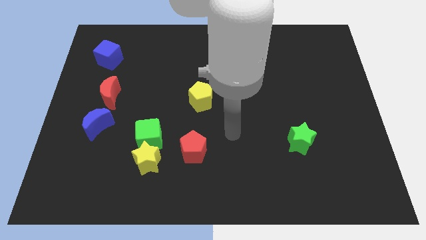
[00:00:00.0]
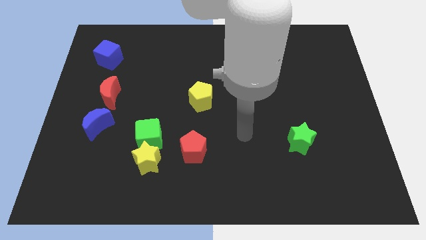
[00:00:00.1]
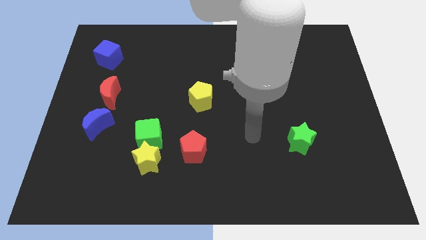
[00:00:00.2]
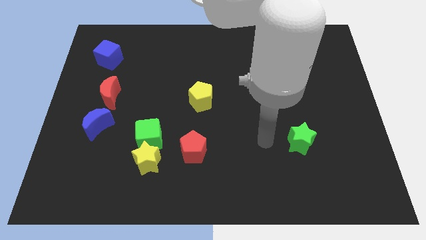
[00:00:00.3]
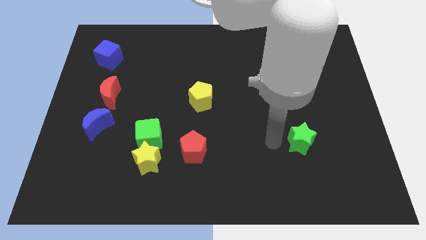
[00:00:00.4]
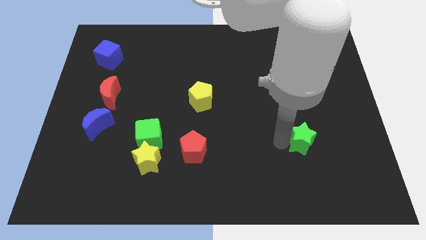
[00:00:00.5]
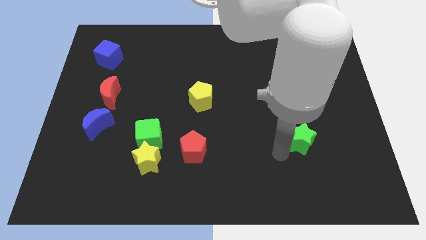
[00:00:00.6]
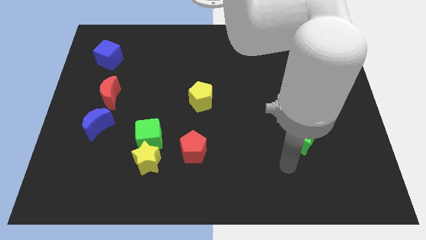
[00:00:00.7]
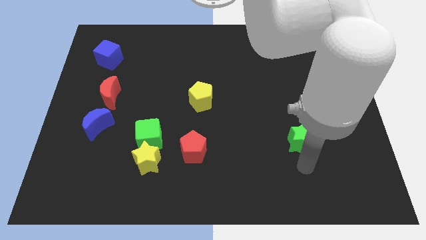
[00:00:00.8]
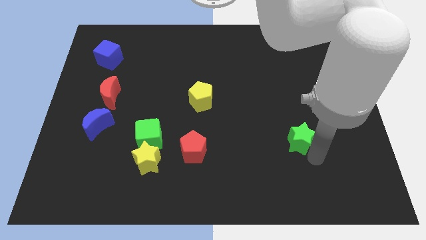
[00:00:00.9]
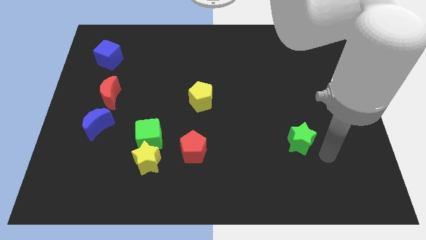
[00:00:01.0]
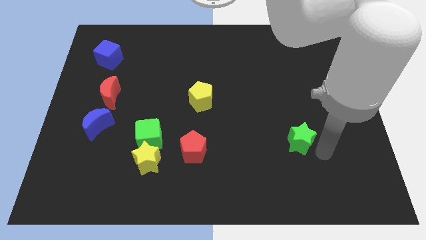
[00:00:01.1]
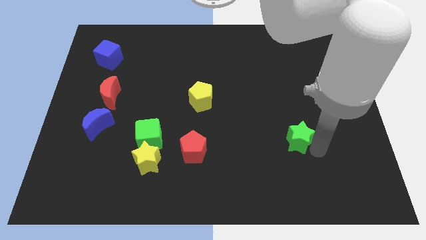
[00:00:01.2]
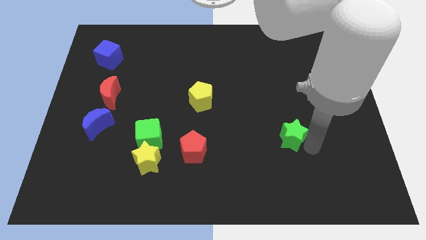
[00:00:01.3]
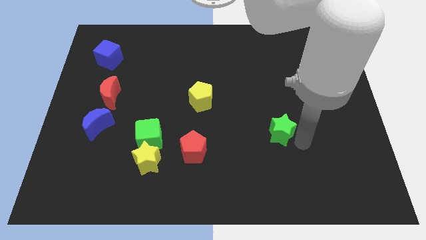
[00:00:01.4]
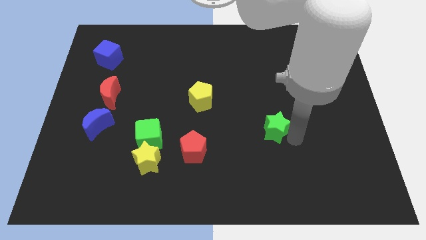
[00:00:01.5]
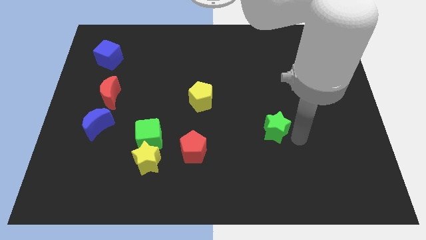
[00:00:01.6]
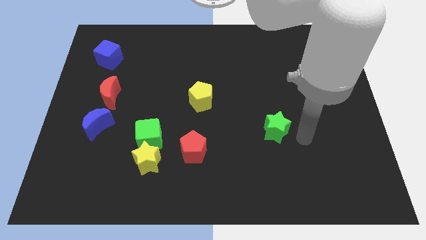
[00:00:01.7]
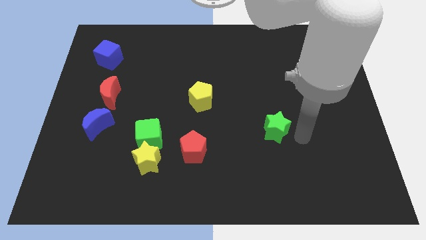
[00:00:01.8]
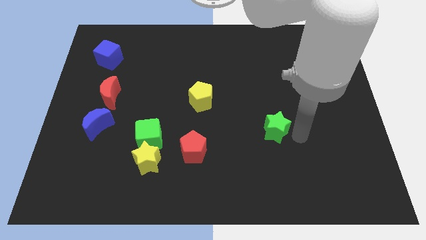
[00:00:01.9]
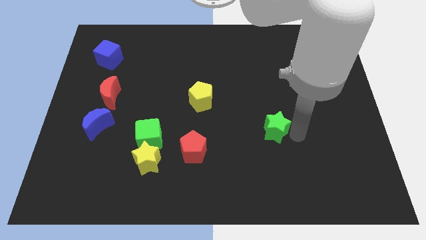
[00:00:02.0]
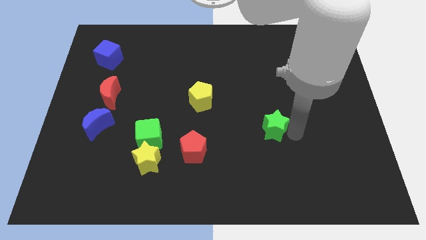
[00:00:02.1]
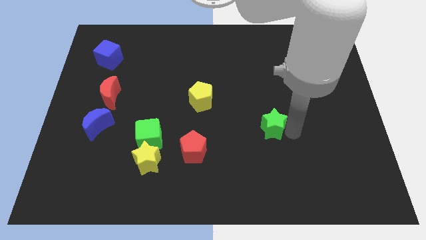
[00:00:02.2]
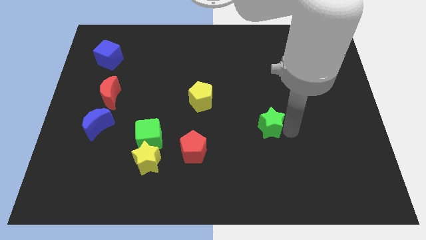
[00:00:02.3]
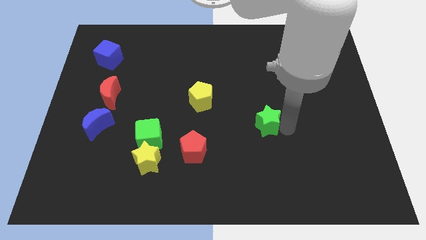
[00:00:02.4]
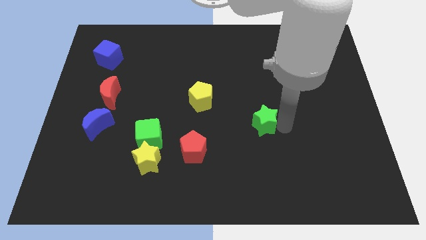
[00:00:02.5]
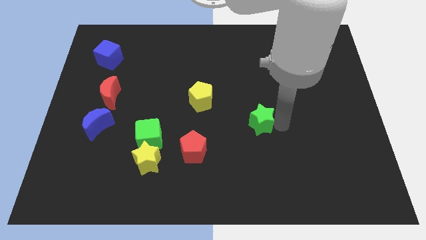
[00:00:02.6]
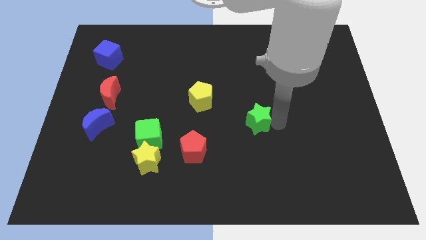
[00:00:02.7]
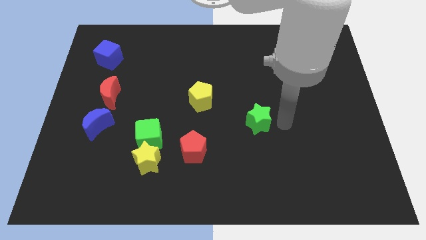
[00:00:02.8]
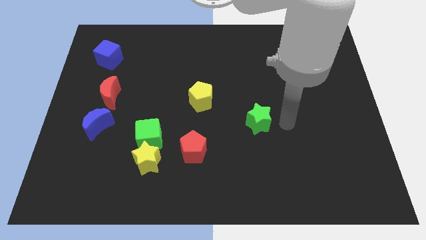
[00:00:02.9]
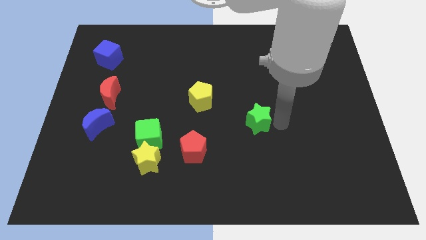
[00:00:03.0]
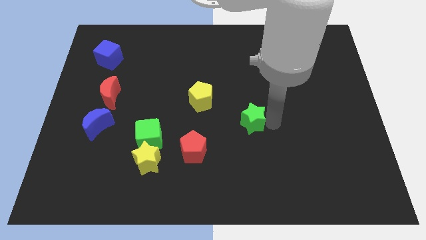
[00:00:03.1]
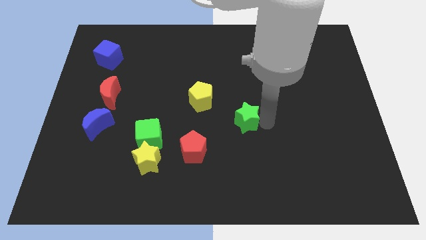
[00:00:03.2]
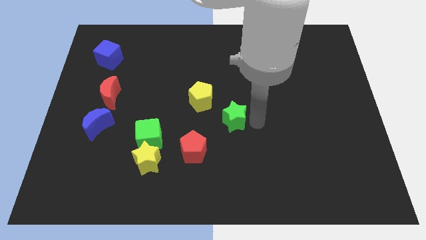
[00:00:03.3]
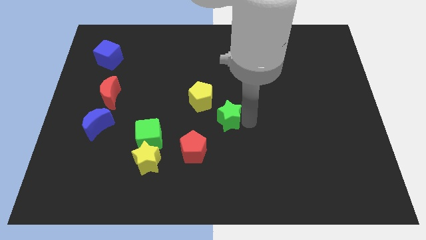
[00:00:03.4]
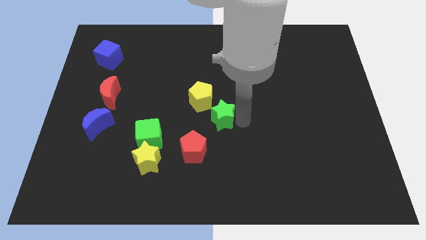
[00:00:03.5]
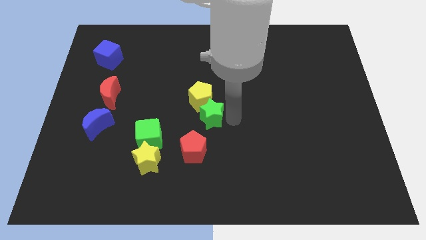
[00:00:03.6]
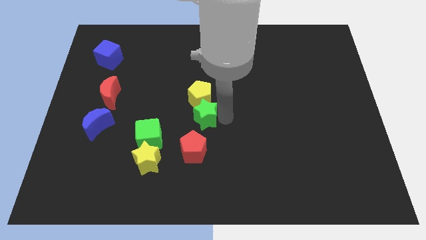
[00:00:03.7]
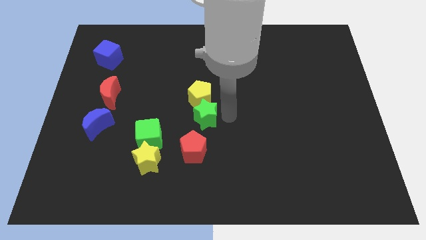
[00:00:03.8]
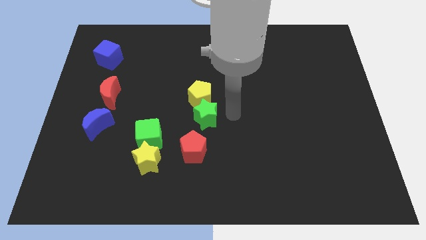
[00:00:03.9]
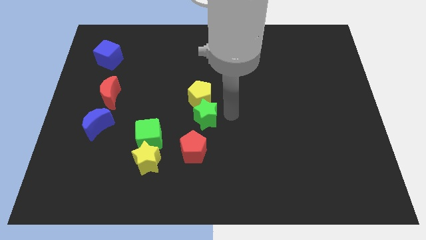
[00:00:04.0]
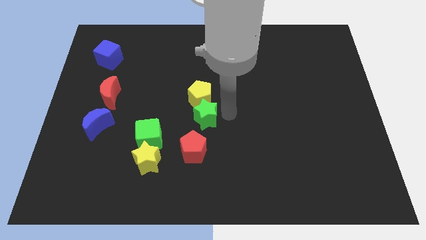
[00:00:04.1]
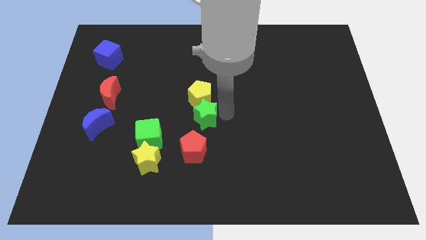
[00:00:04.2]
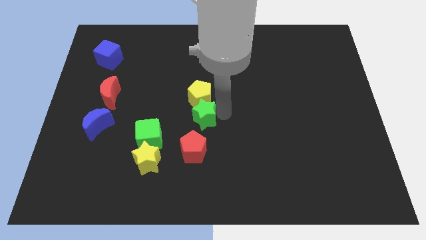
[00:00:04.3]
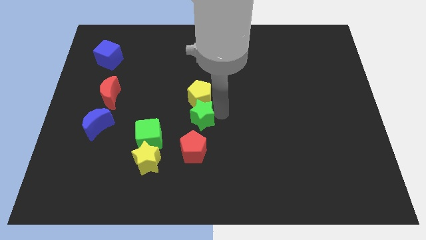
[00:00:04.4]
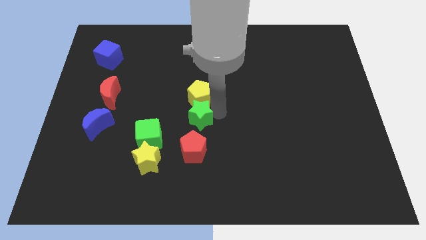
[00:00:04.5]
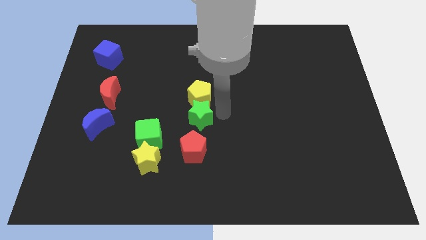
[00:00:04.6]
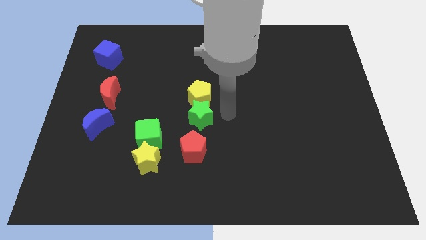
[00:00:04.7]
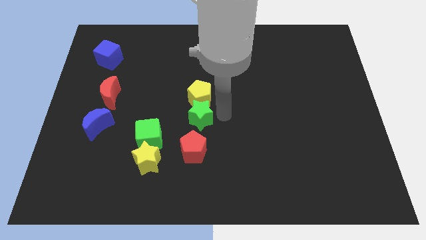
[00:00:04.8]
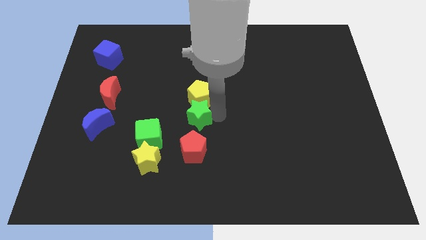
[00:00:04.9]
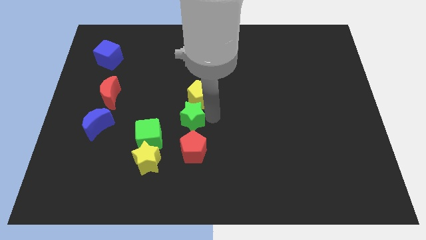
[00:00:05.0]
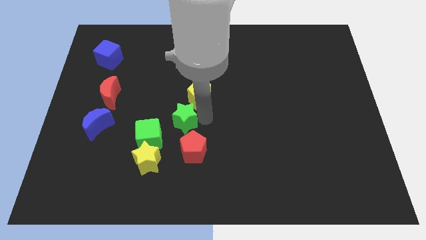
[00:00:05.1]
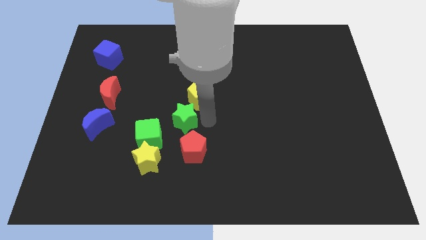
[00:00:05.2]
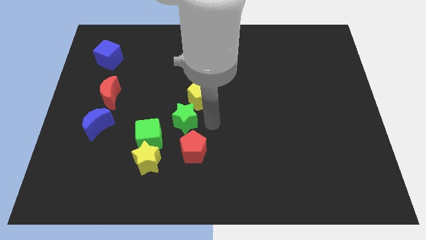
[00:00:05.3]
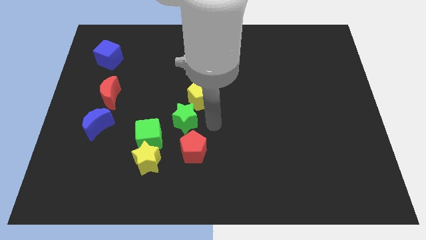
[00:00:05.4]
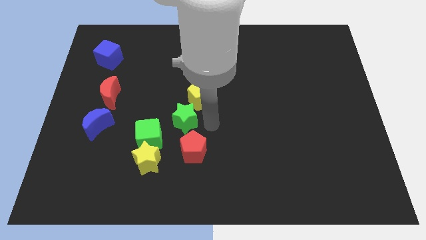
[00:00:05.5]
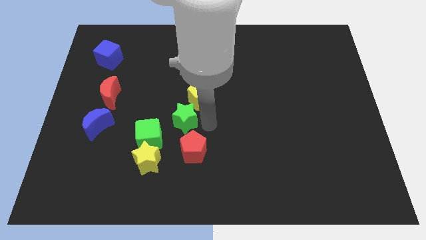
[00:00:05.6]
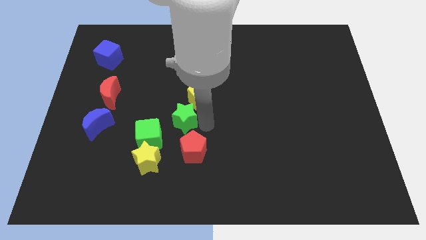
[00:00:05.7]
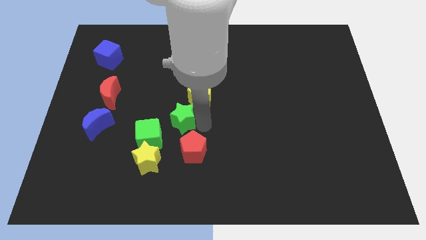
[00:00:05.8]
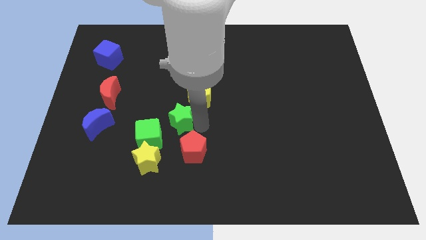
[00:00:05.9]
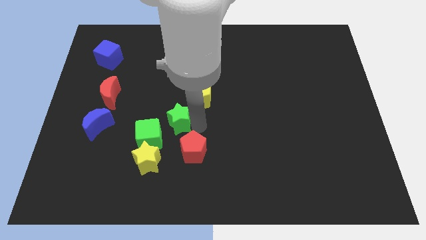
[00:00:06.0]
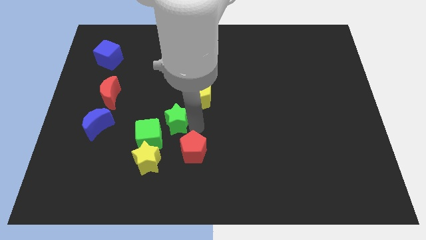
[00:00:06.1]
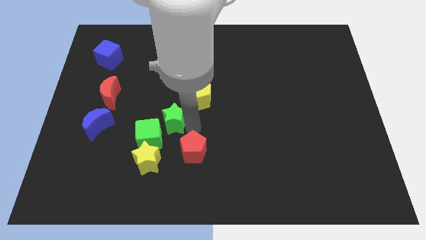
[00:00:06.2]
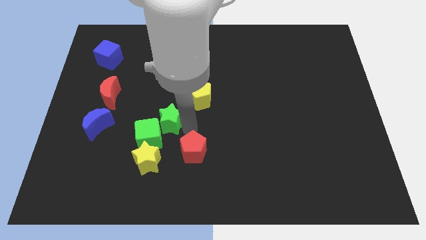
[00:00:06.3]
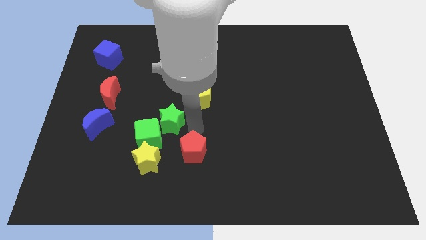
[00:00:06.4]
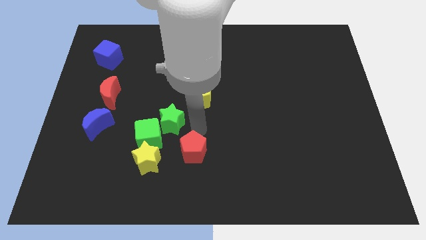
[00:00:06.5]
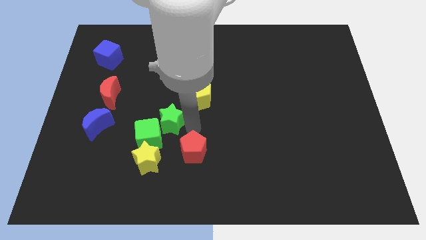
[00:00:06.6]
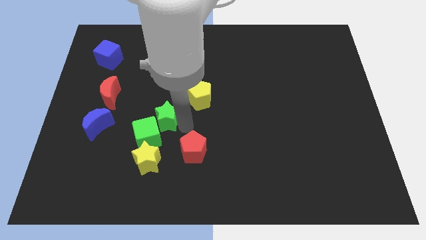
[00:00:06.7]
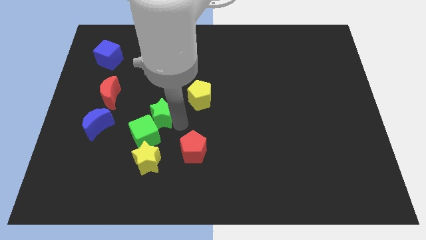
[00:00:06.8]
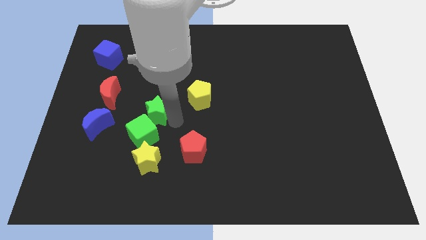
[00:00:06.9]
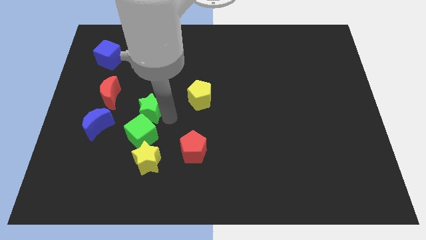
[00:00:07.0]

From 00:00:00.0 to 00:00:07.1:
push the green star diagonally down and to the right of the red moon
